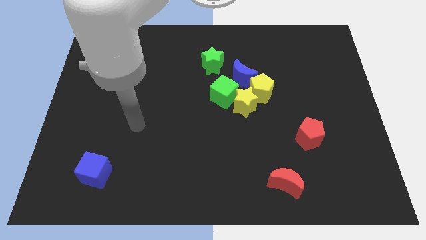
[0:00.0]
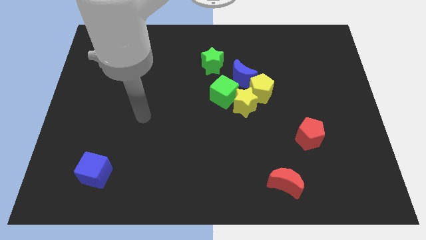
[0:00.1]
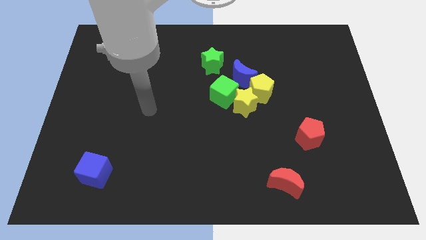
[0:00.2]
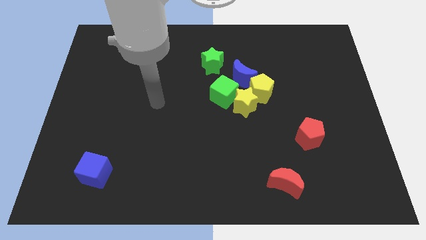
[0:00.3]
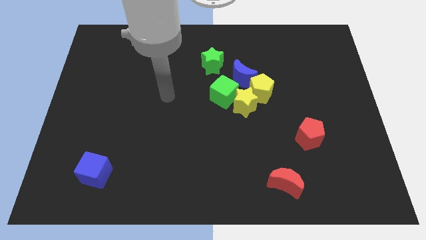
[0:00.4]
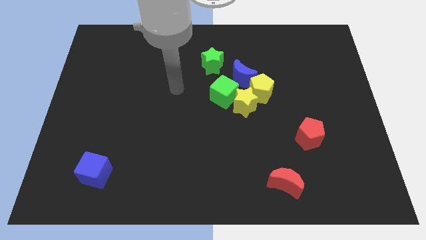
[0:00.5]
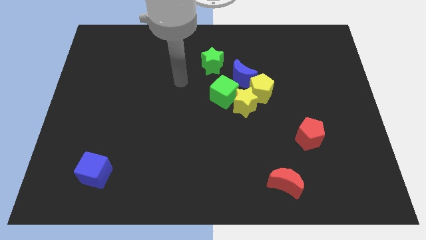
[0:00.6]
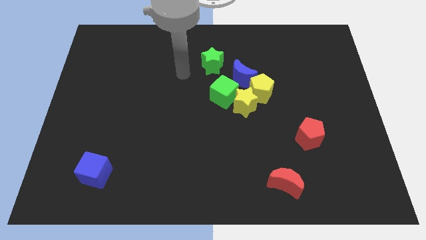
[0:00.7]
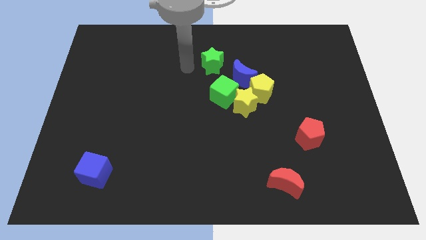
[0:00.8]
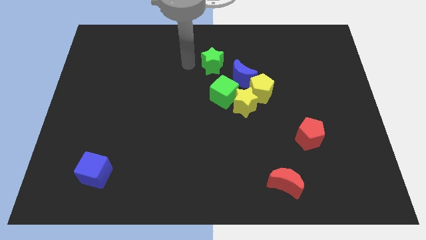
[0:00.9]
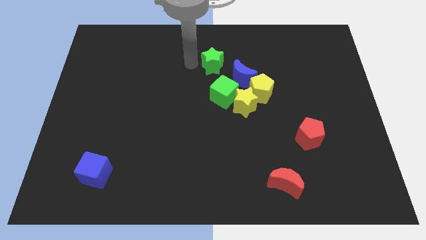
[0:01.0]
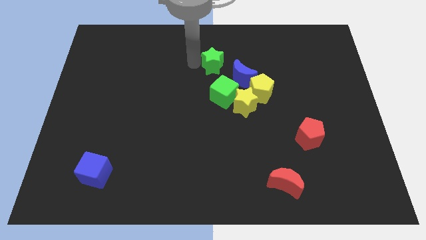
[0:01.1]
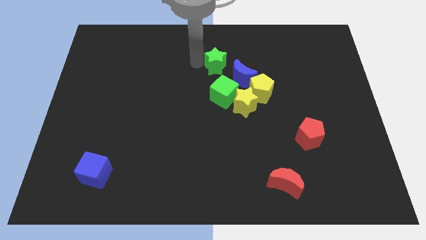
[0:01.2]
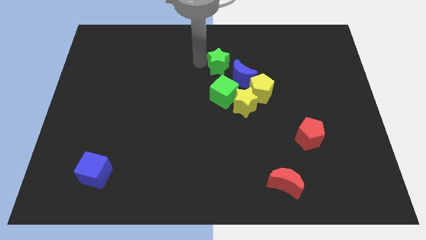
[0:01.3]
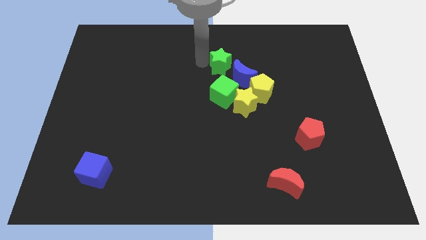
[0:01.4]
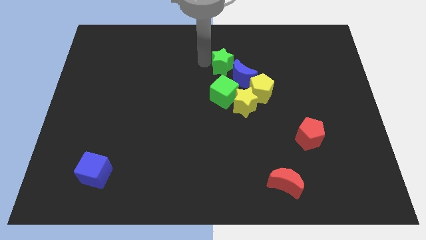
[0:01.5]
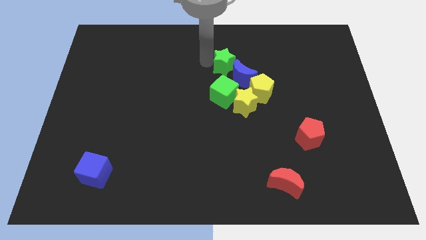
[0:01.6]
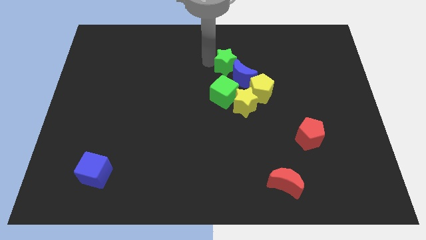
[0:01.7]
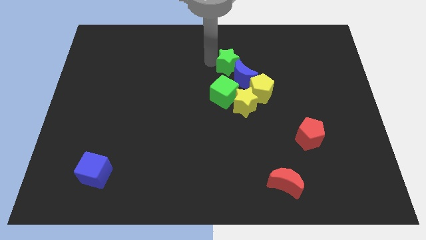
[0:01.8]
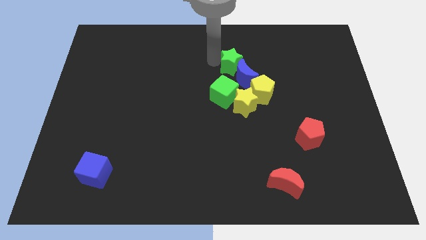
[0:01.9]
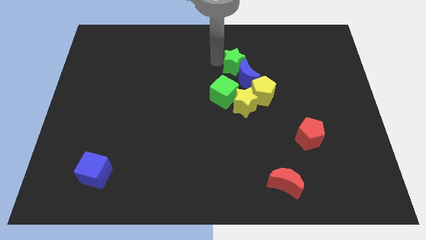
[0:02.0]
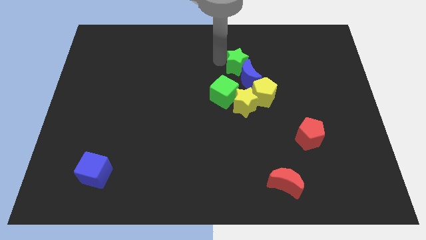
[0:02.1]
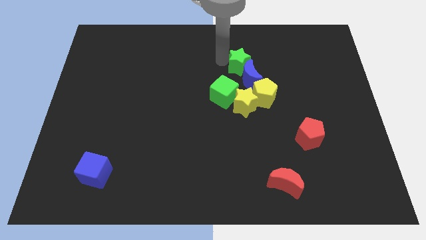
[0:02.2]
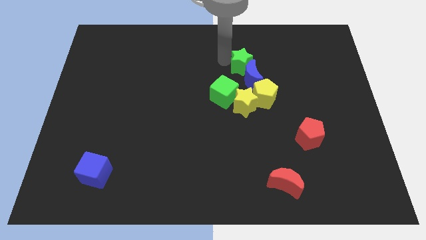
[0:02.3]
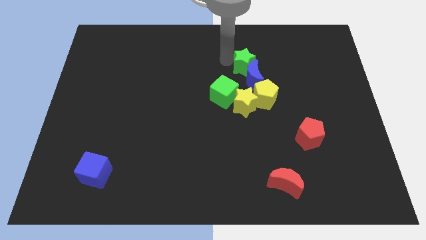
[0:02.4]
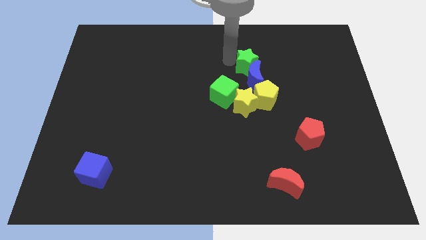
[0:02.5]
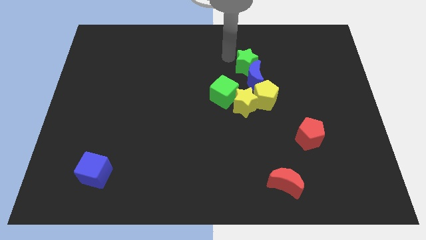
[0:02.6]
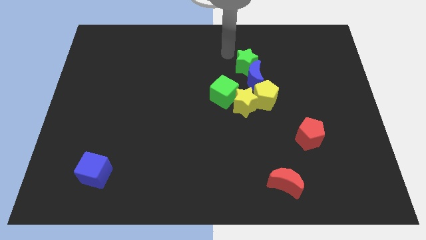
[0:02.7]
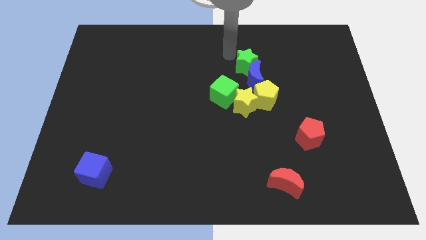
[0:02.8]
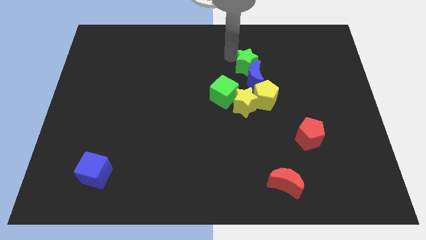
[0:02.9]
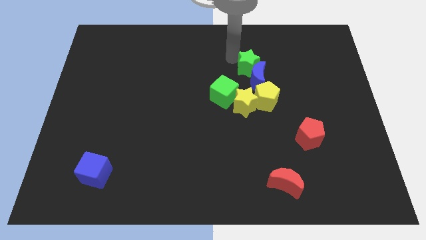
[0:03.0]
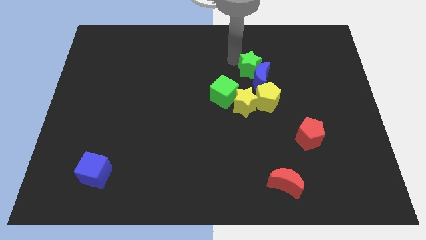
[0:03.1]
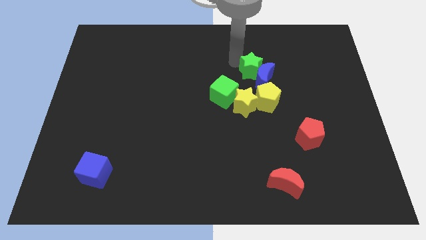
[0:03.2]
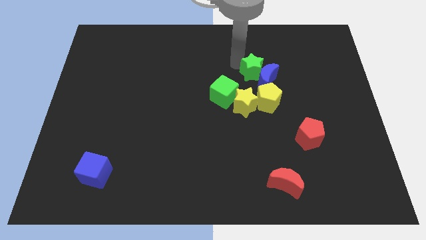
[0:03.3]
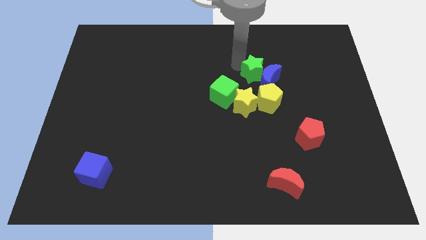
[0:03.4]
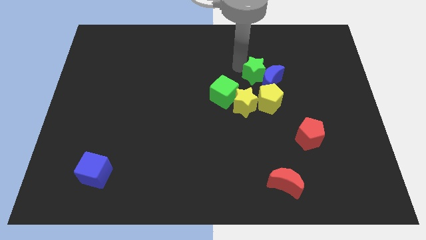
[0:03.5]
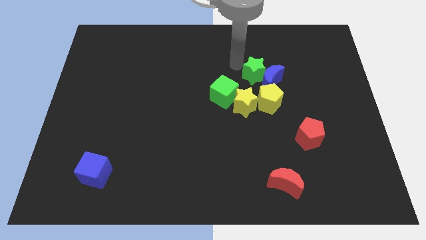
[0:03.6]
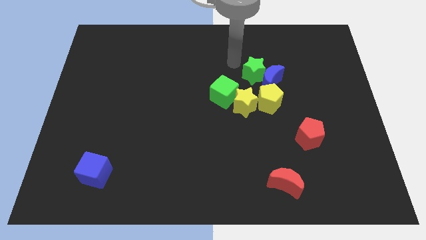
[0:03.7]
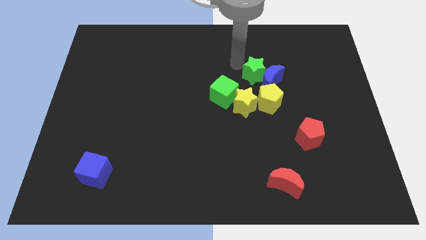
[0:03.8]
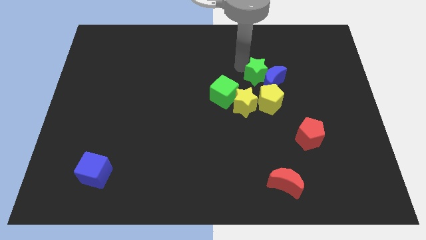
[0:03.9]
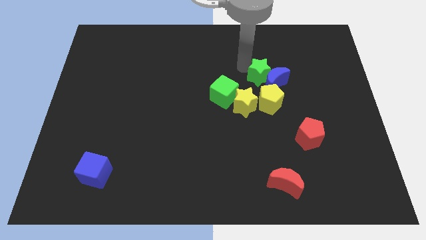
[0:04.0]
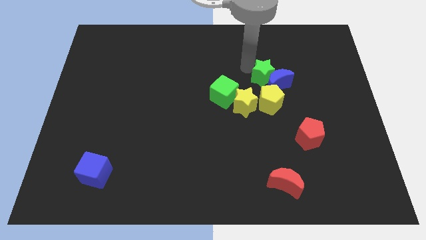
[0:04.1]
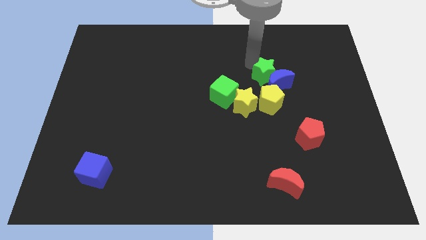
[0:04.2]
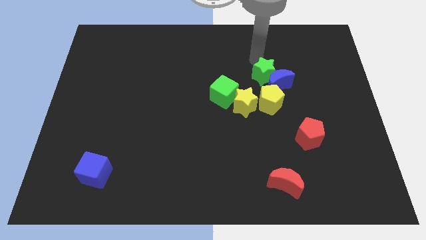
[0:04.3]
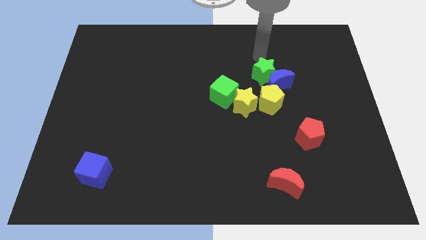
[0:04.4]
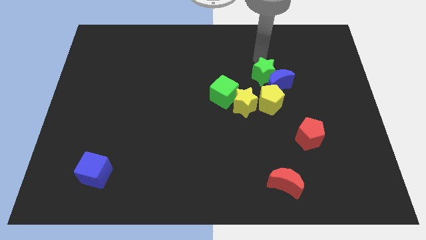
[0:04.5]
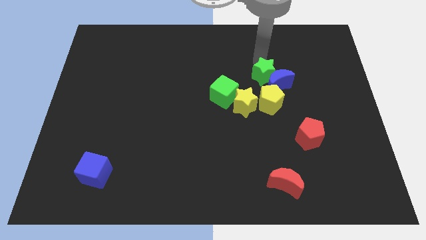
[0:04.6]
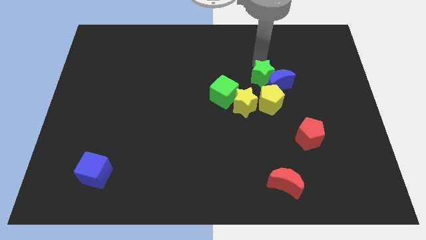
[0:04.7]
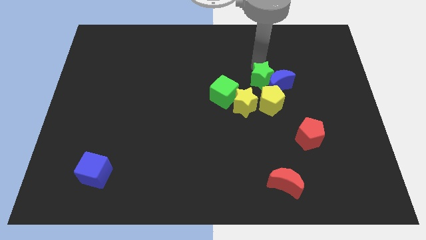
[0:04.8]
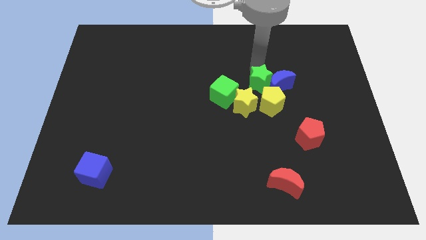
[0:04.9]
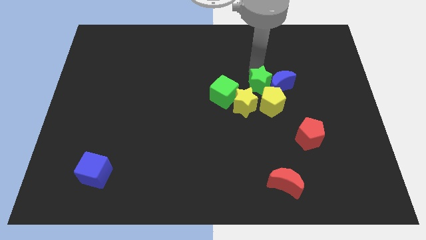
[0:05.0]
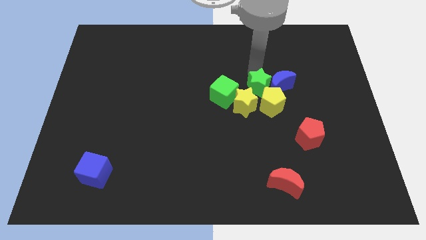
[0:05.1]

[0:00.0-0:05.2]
push the green star next to the yellow pentagon

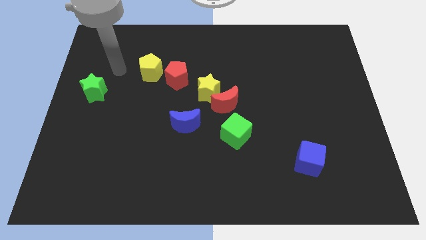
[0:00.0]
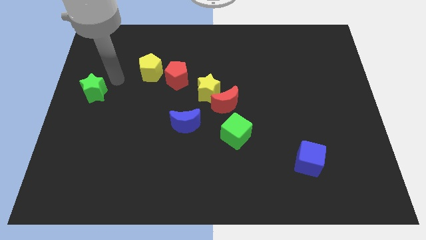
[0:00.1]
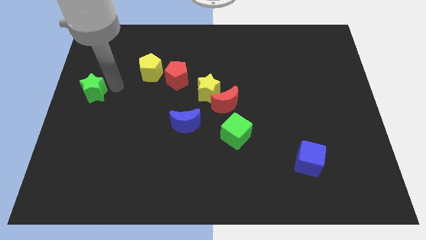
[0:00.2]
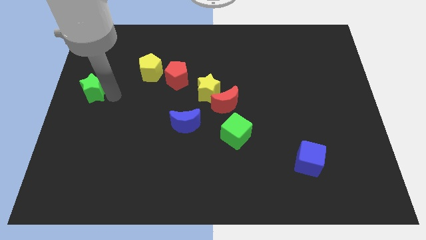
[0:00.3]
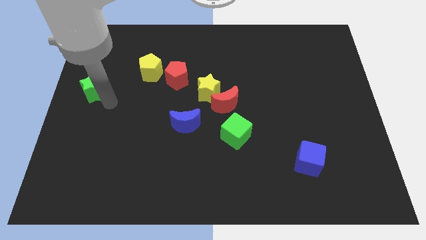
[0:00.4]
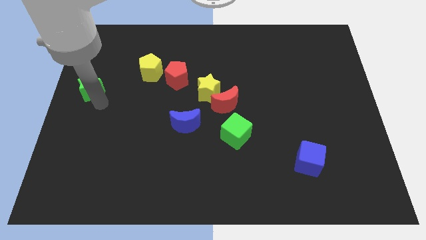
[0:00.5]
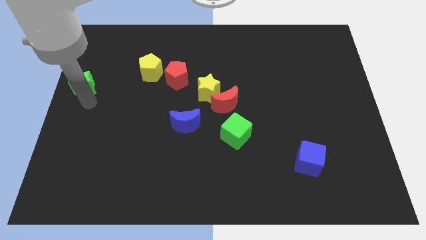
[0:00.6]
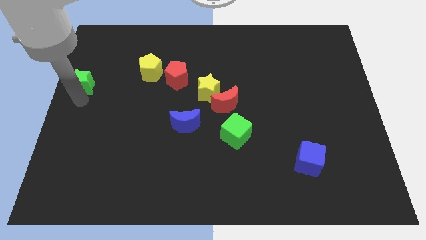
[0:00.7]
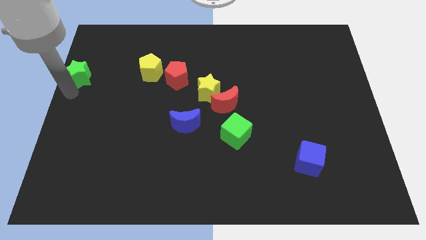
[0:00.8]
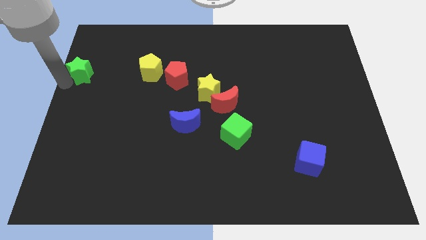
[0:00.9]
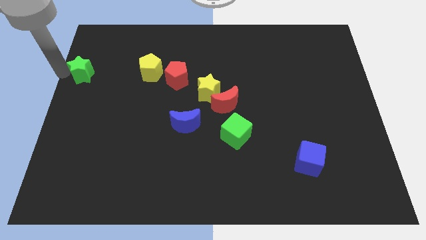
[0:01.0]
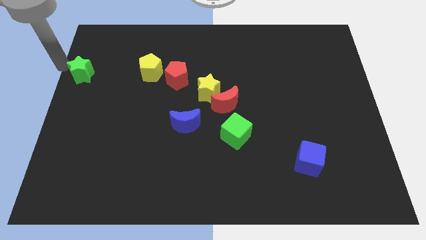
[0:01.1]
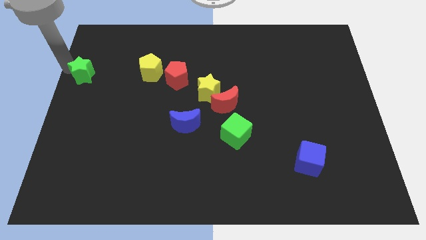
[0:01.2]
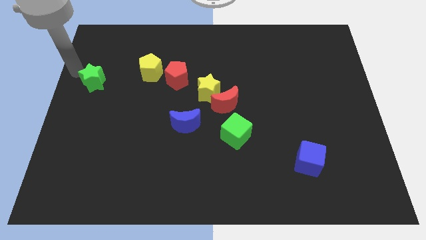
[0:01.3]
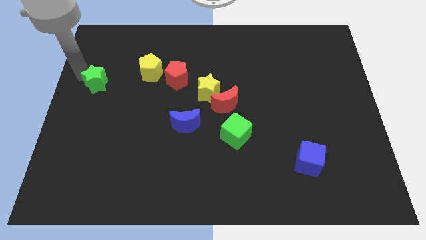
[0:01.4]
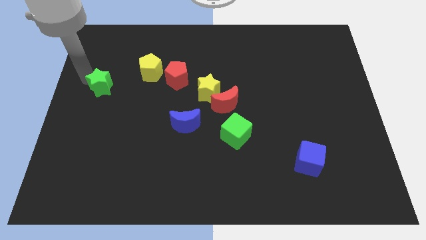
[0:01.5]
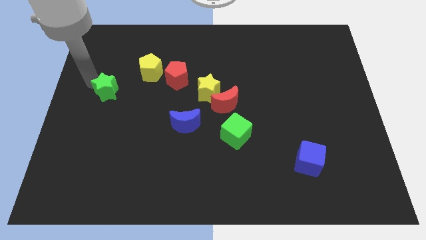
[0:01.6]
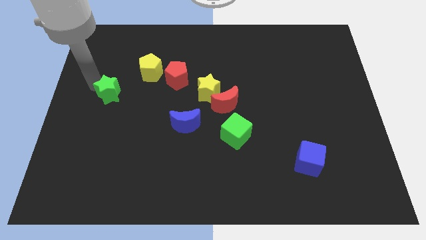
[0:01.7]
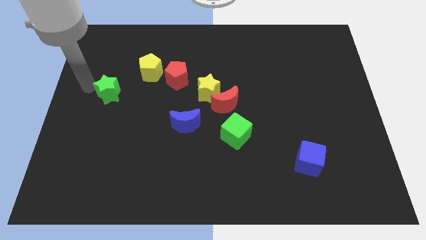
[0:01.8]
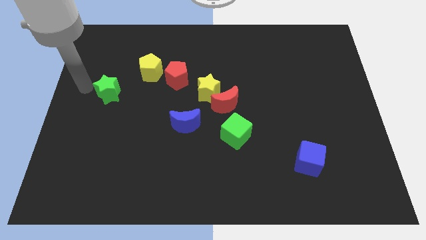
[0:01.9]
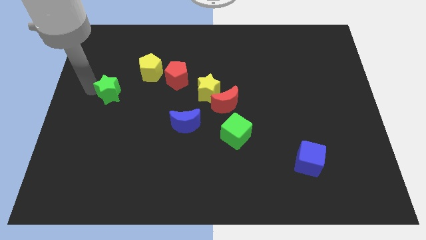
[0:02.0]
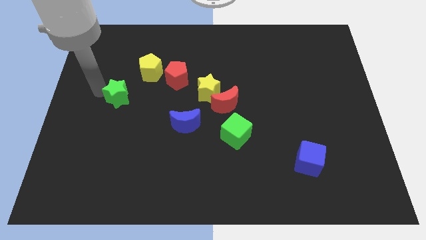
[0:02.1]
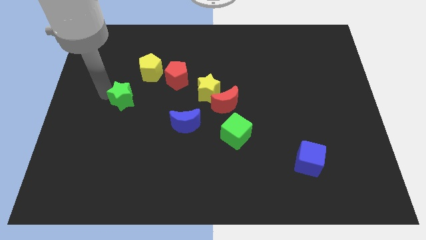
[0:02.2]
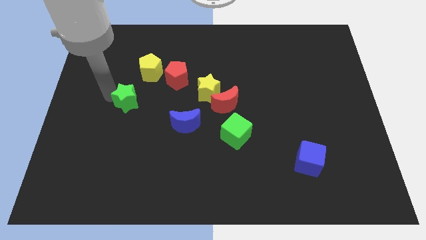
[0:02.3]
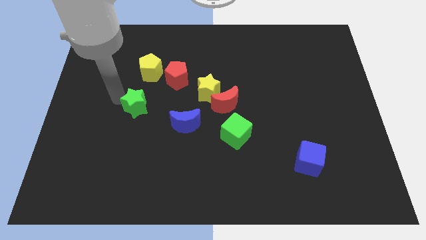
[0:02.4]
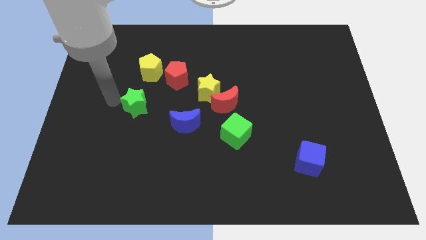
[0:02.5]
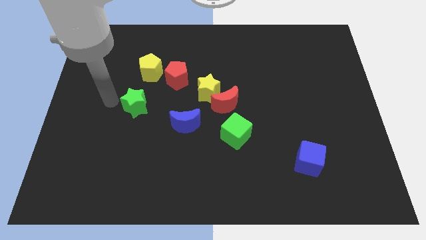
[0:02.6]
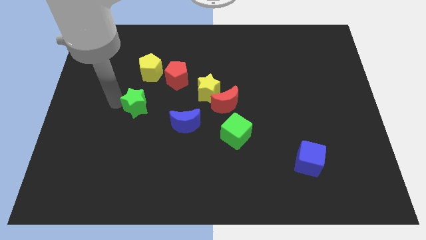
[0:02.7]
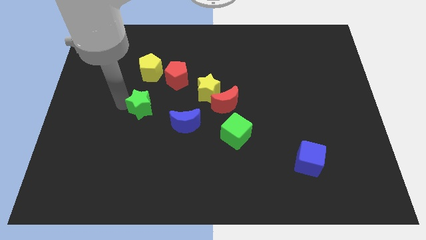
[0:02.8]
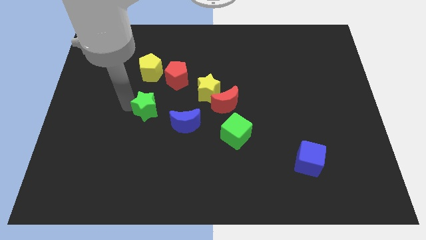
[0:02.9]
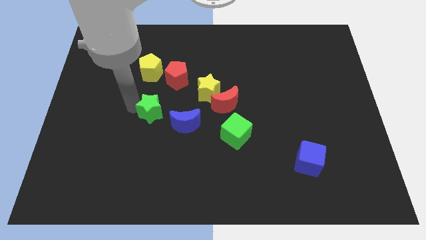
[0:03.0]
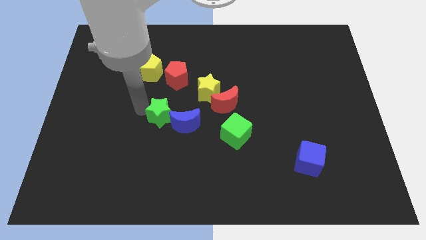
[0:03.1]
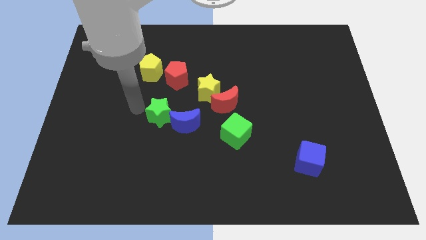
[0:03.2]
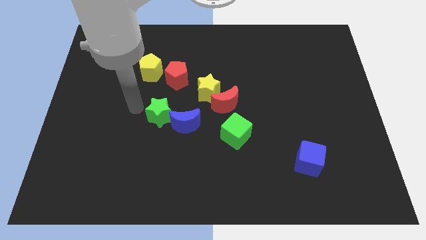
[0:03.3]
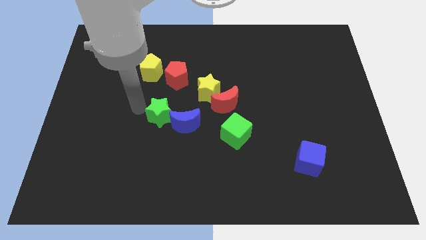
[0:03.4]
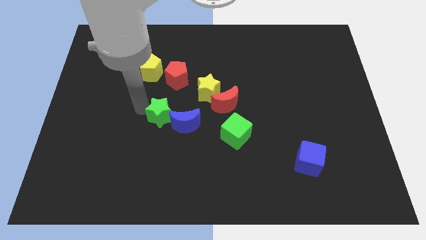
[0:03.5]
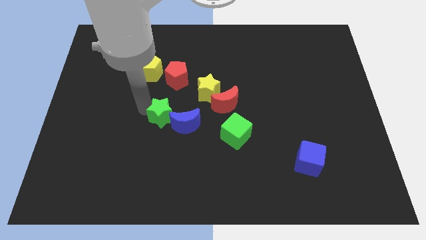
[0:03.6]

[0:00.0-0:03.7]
push the green star to the blue moon
